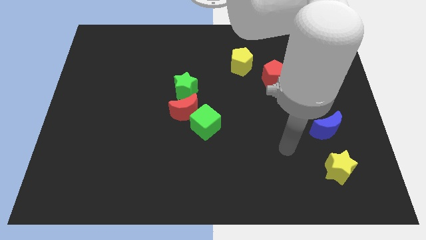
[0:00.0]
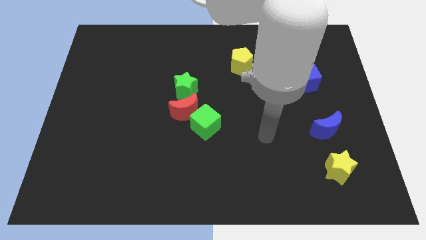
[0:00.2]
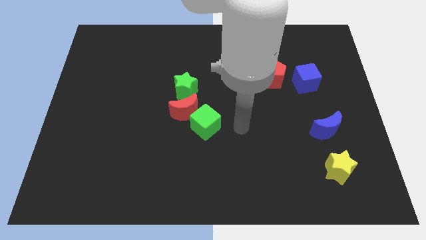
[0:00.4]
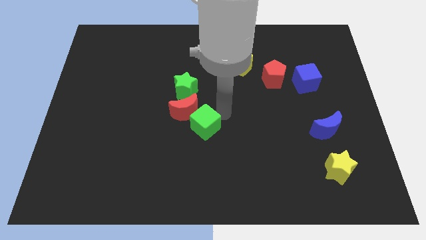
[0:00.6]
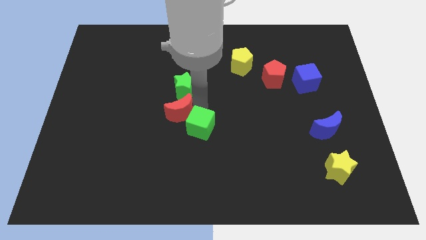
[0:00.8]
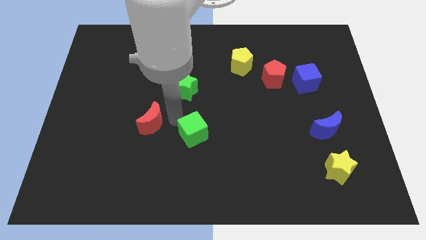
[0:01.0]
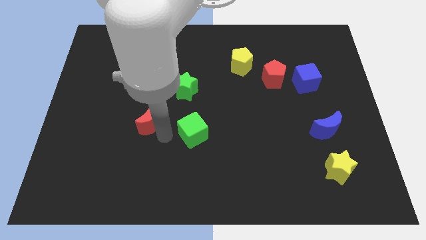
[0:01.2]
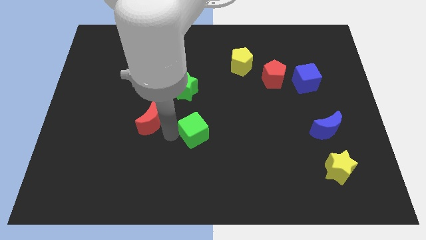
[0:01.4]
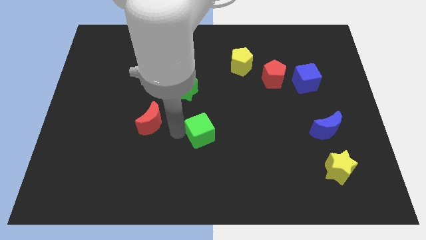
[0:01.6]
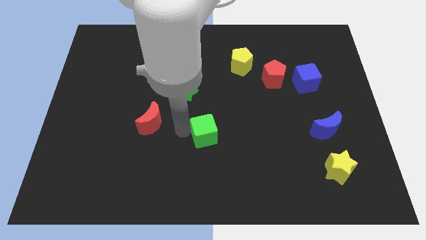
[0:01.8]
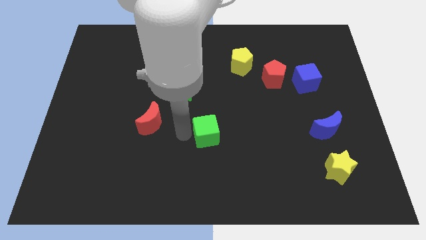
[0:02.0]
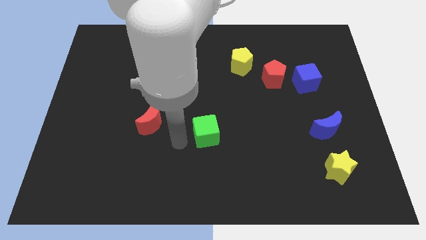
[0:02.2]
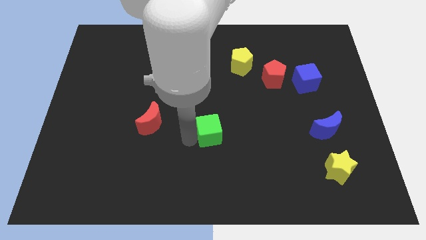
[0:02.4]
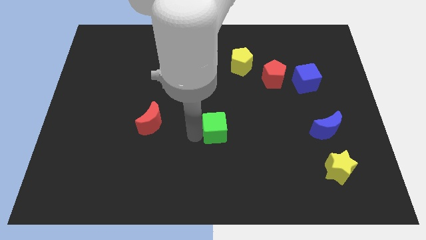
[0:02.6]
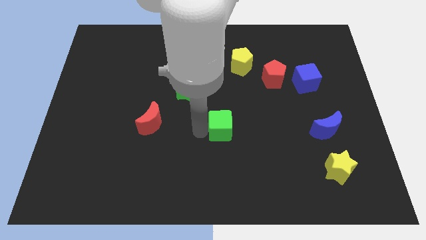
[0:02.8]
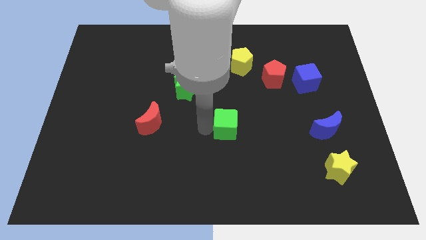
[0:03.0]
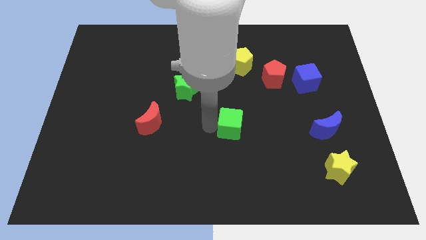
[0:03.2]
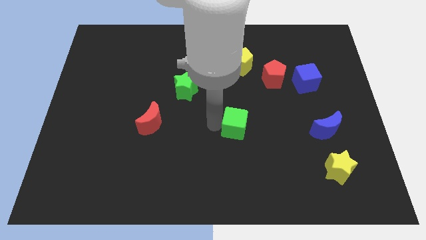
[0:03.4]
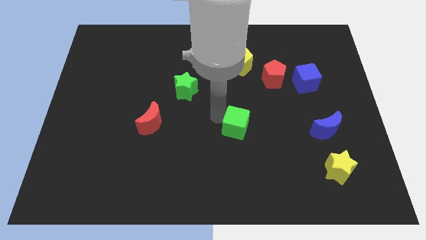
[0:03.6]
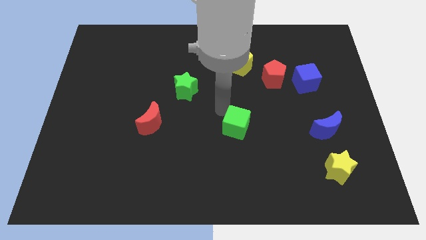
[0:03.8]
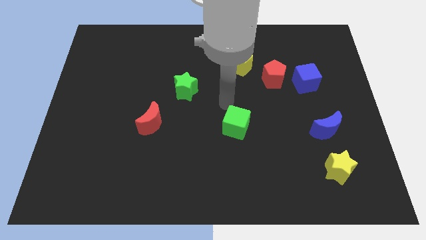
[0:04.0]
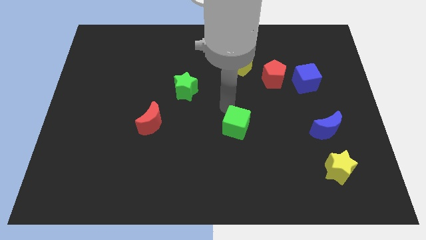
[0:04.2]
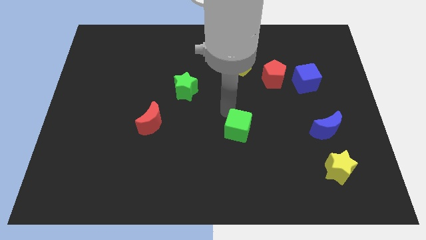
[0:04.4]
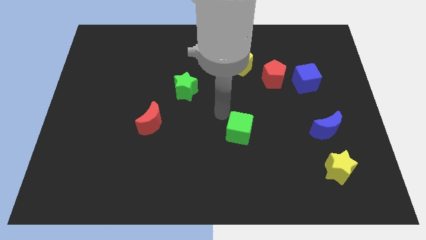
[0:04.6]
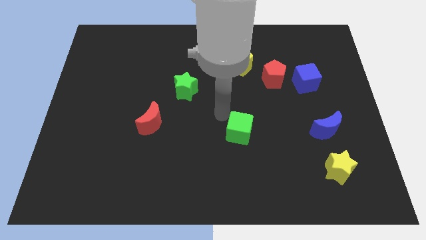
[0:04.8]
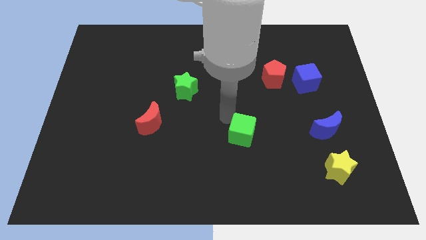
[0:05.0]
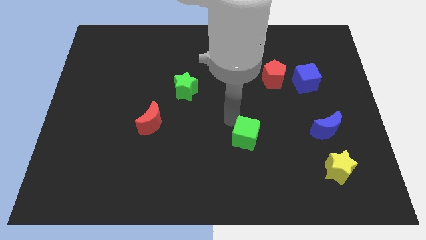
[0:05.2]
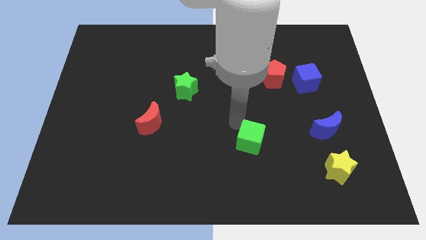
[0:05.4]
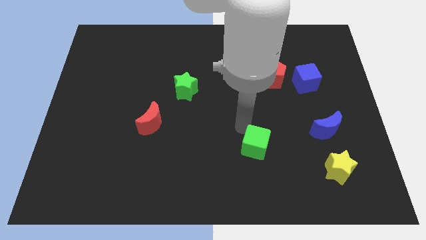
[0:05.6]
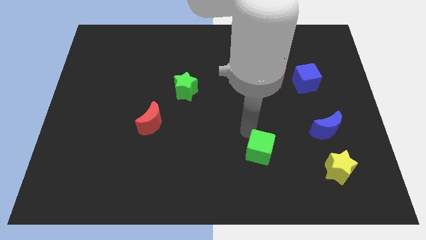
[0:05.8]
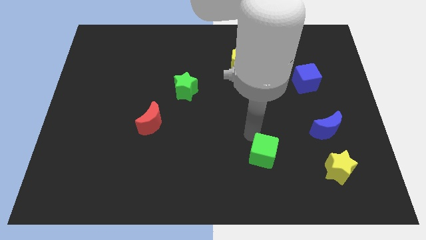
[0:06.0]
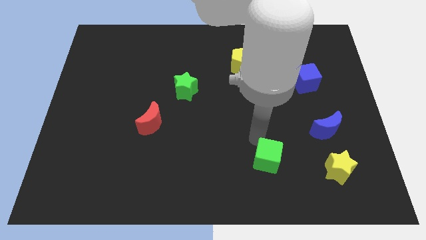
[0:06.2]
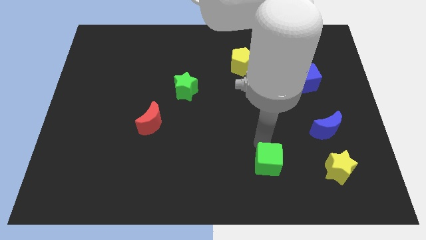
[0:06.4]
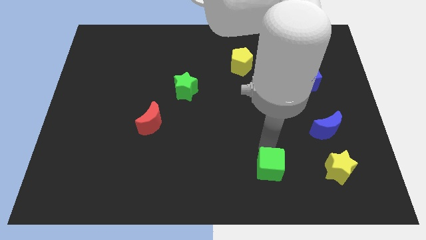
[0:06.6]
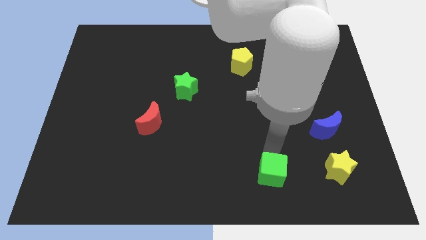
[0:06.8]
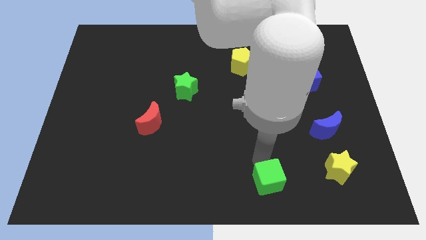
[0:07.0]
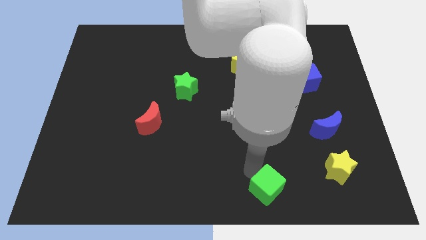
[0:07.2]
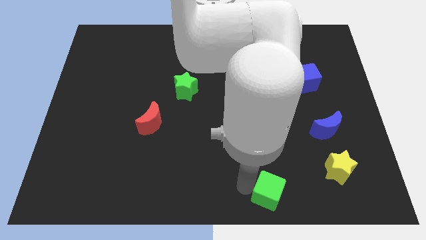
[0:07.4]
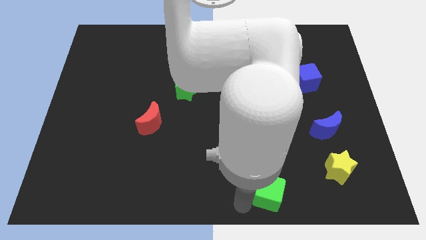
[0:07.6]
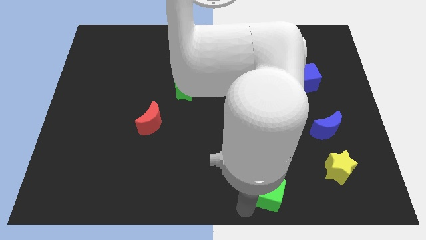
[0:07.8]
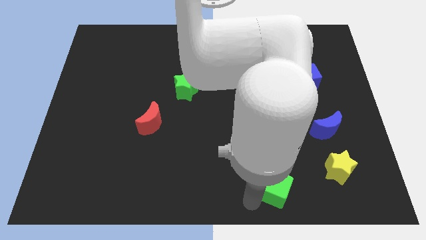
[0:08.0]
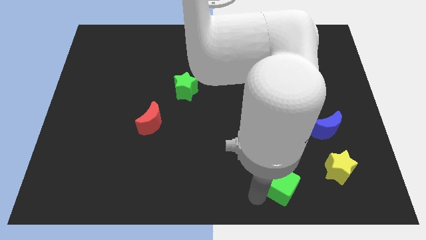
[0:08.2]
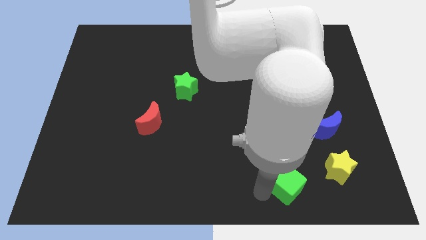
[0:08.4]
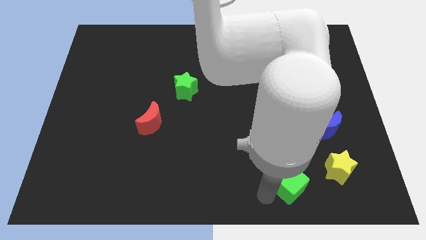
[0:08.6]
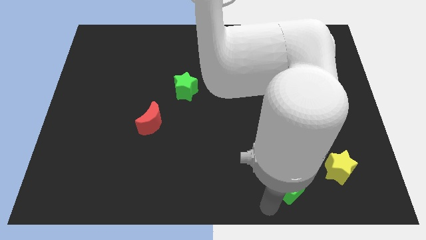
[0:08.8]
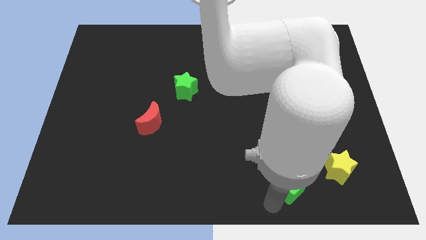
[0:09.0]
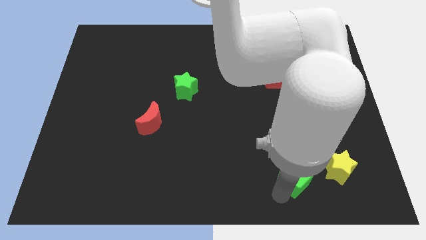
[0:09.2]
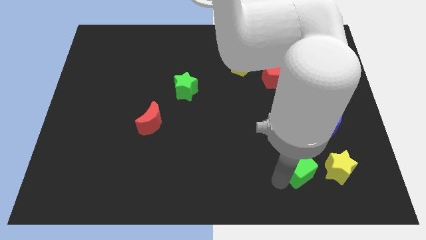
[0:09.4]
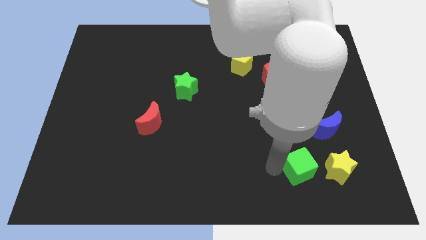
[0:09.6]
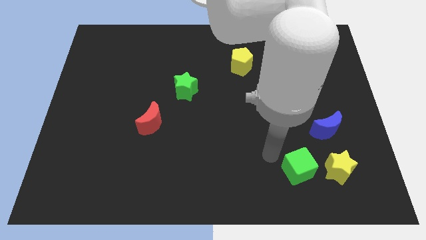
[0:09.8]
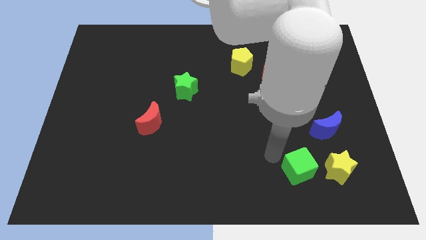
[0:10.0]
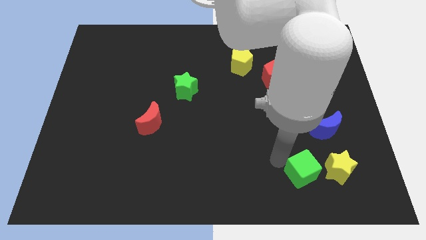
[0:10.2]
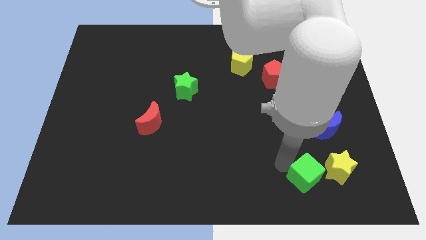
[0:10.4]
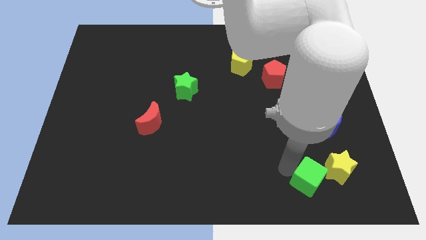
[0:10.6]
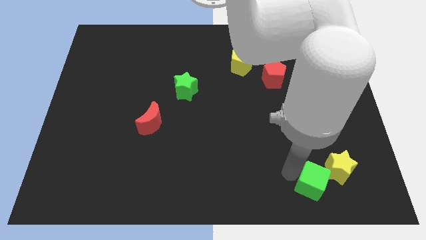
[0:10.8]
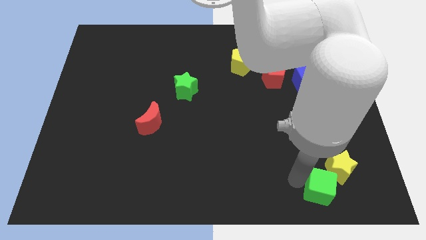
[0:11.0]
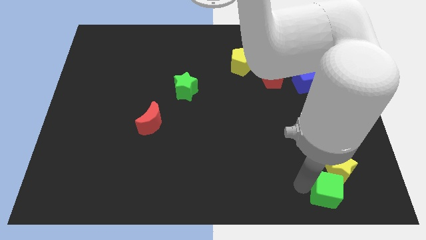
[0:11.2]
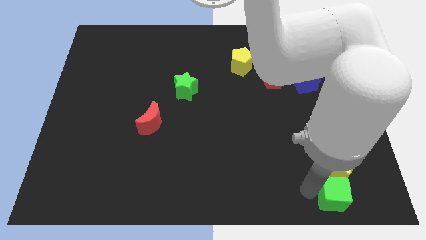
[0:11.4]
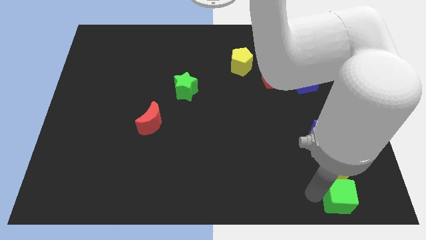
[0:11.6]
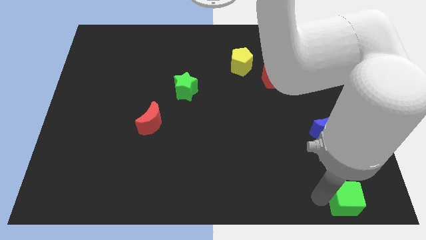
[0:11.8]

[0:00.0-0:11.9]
push the green cube to the bottom right

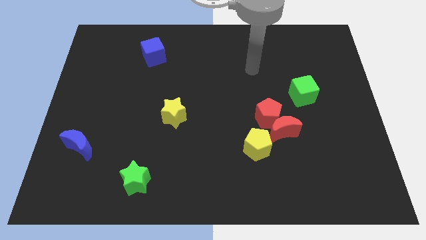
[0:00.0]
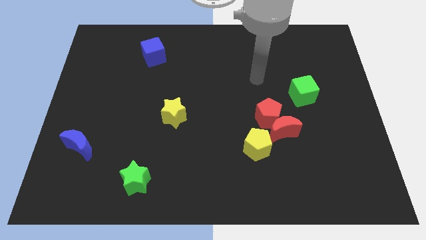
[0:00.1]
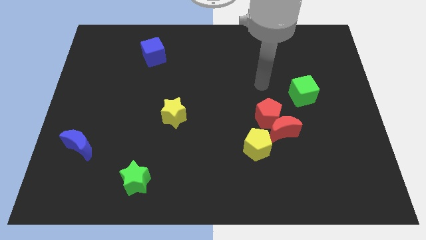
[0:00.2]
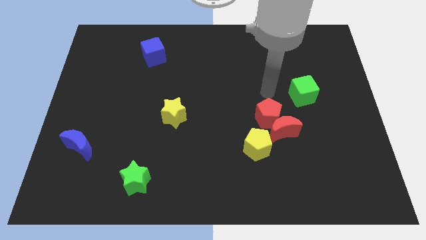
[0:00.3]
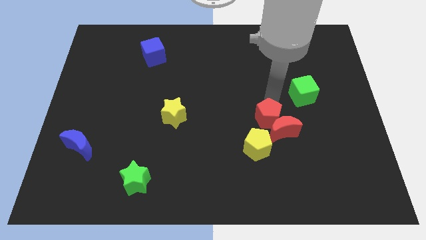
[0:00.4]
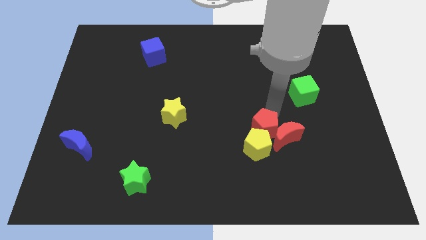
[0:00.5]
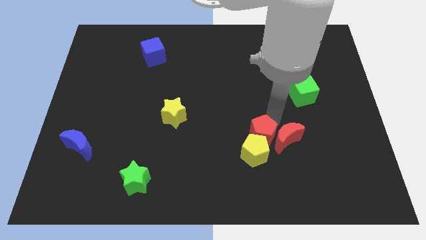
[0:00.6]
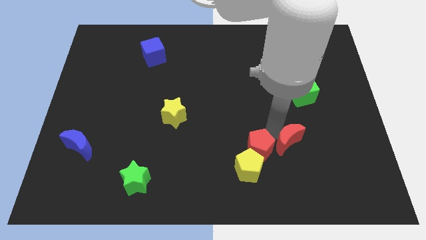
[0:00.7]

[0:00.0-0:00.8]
slide the yellow pentagon to the bottom side
